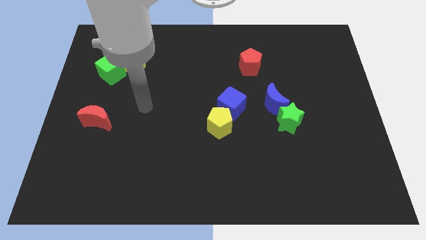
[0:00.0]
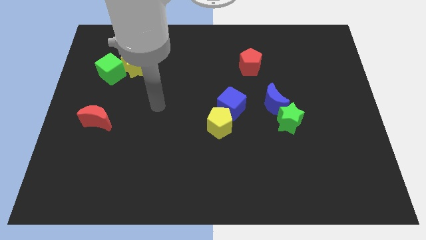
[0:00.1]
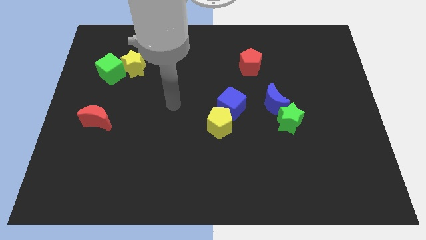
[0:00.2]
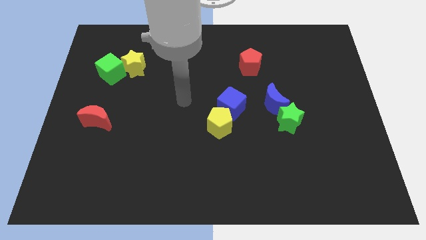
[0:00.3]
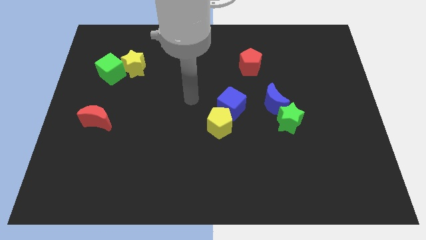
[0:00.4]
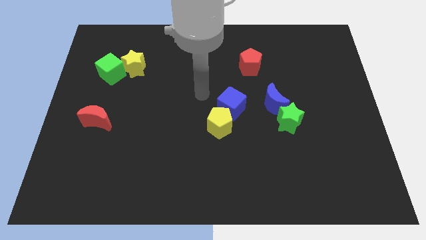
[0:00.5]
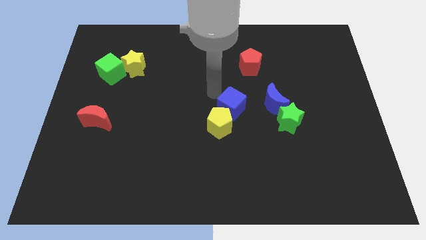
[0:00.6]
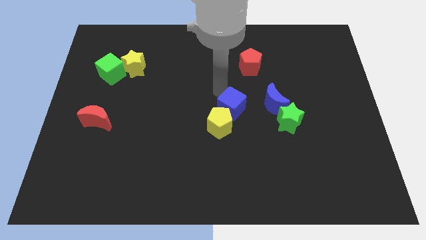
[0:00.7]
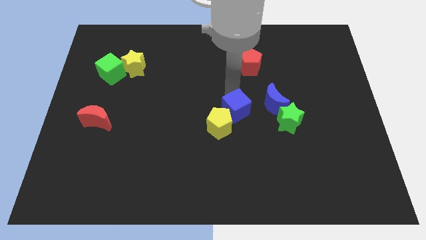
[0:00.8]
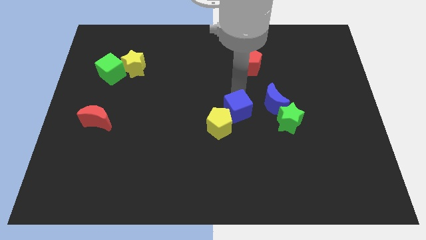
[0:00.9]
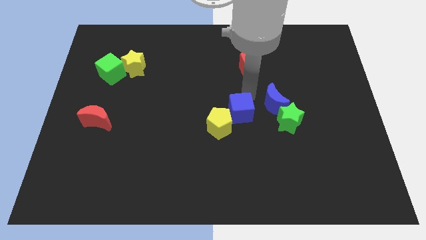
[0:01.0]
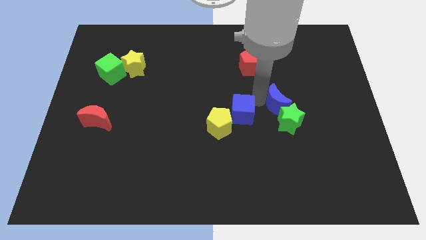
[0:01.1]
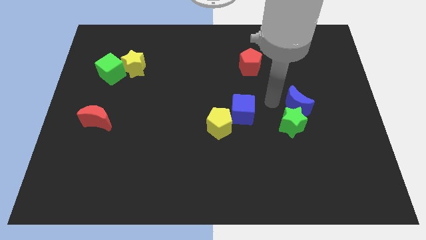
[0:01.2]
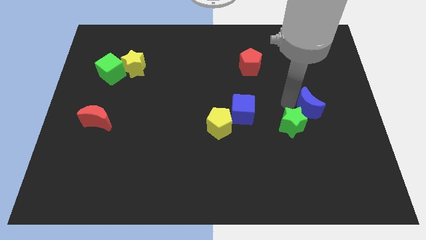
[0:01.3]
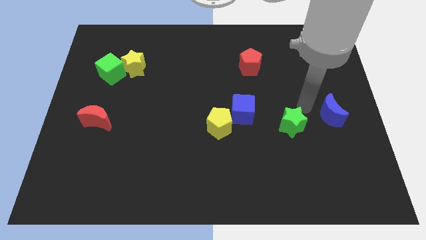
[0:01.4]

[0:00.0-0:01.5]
pull the green star apart from the blue moon

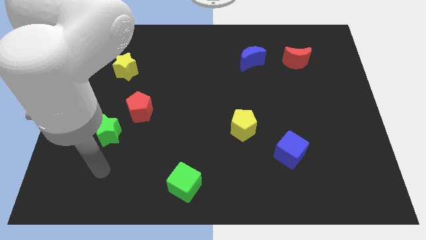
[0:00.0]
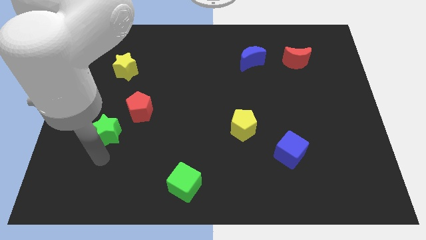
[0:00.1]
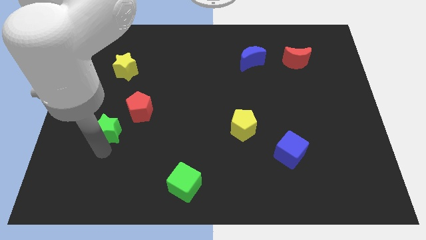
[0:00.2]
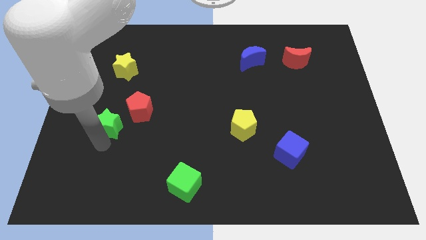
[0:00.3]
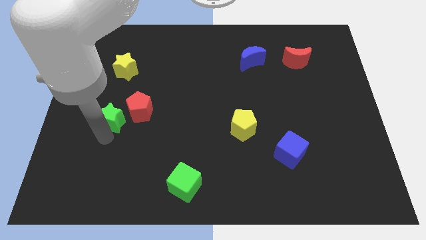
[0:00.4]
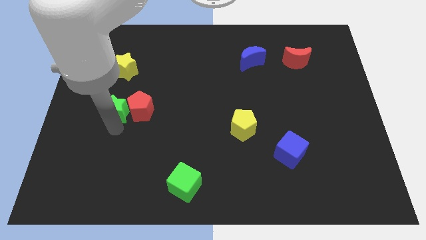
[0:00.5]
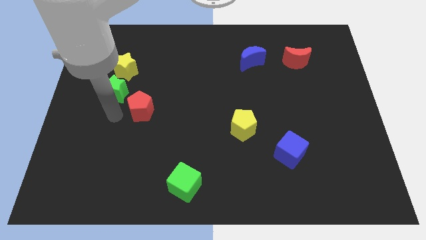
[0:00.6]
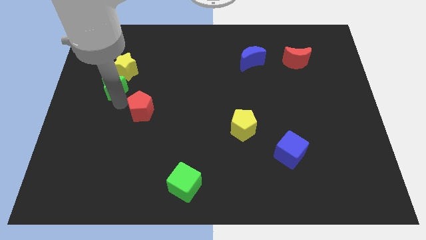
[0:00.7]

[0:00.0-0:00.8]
separate the red pentagon from the green star

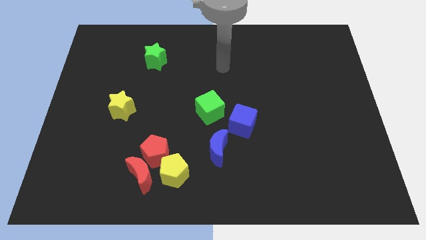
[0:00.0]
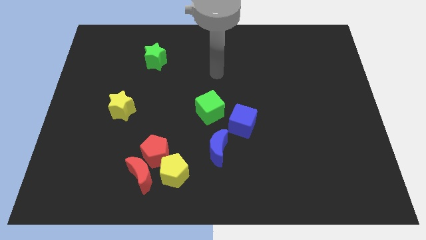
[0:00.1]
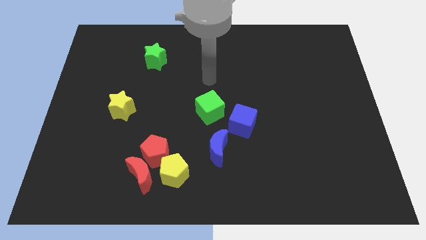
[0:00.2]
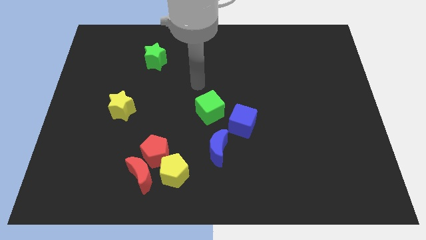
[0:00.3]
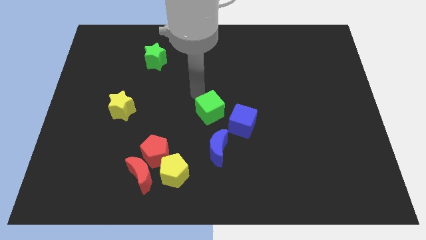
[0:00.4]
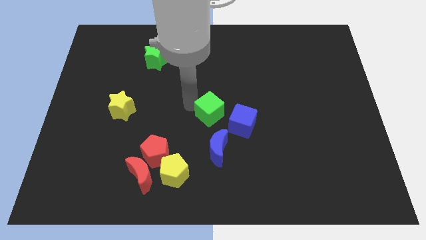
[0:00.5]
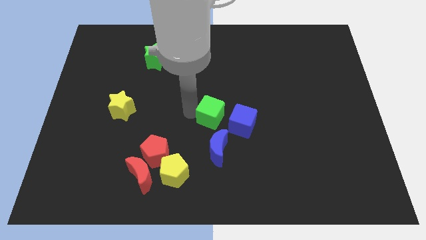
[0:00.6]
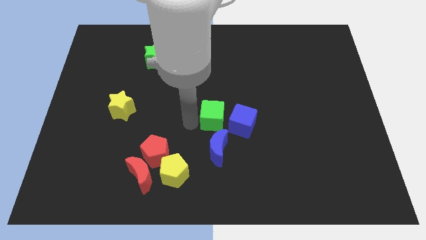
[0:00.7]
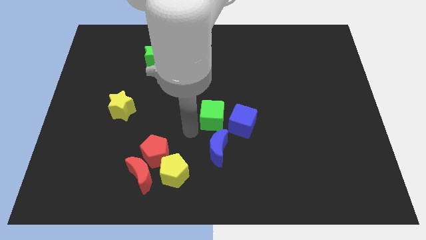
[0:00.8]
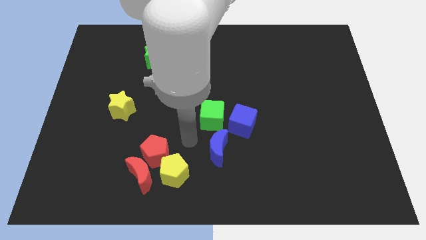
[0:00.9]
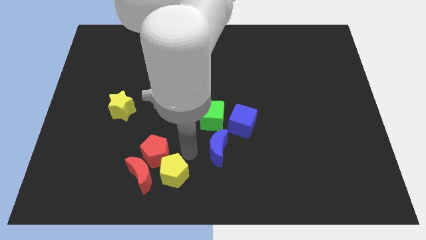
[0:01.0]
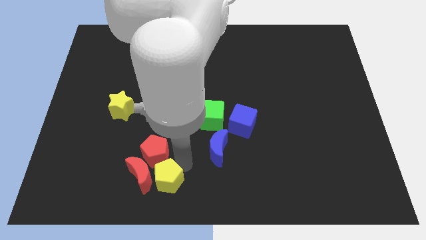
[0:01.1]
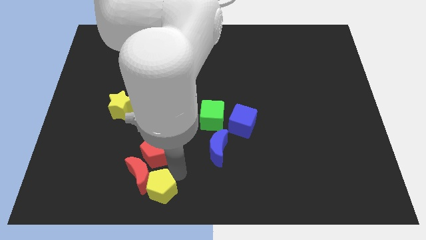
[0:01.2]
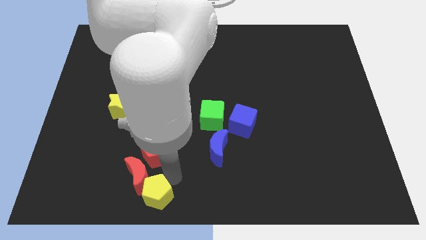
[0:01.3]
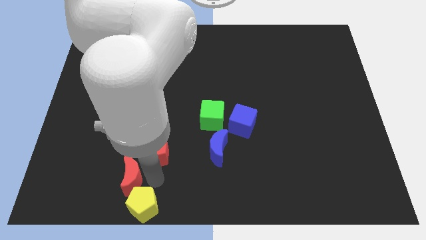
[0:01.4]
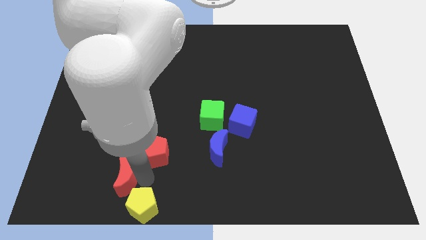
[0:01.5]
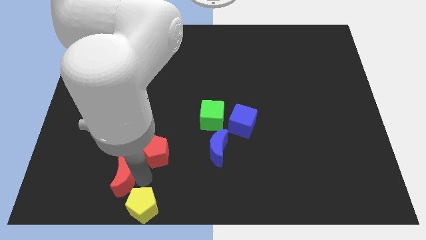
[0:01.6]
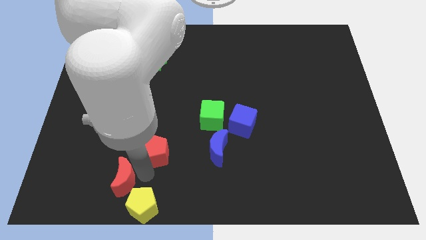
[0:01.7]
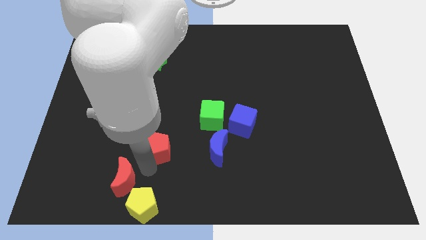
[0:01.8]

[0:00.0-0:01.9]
move the red pentagon away from the red moon and yellow pentagon

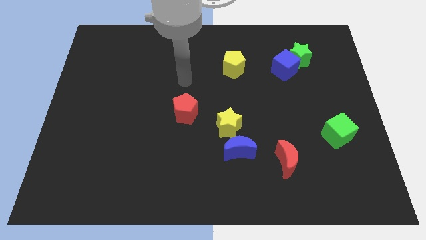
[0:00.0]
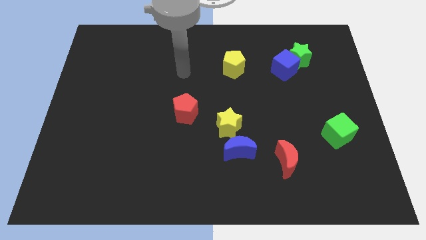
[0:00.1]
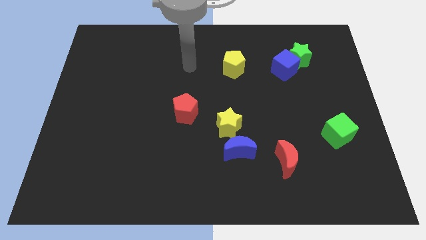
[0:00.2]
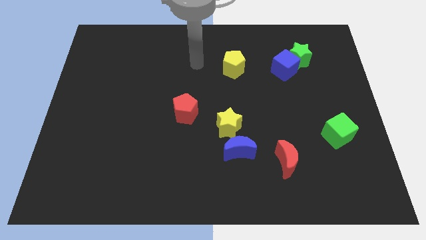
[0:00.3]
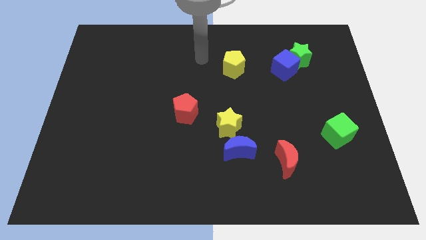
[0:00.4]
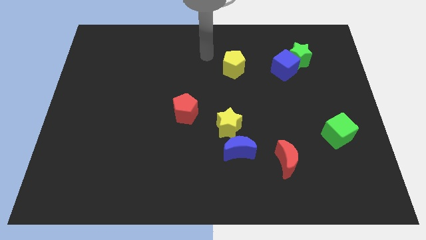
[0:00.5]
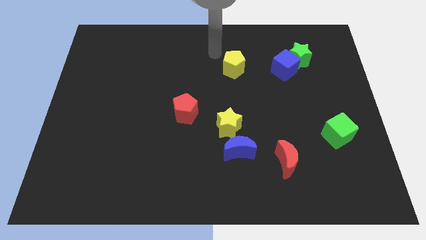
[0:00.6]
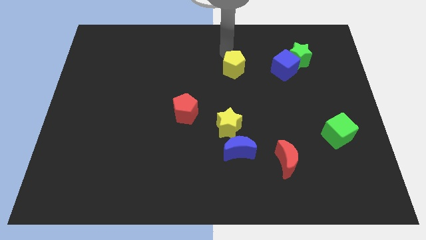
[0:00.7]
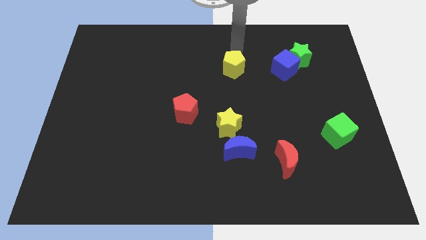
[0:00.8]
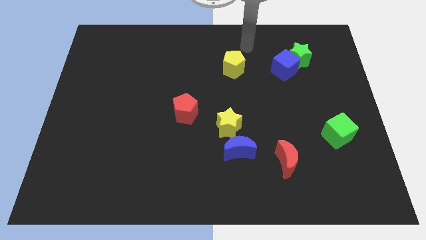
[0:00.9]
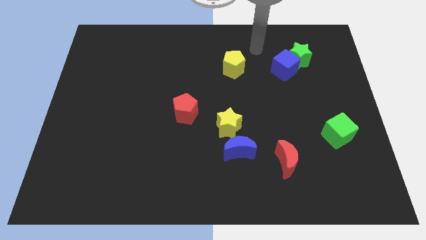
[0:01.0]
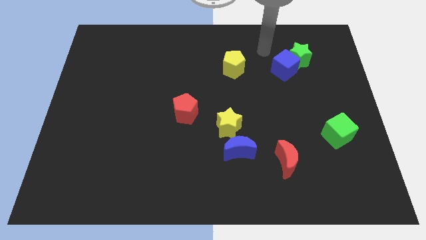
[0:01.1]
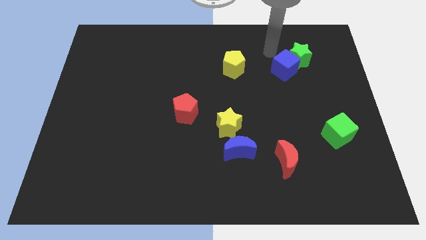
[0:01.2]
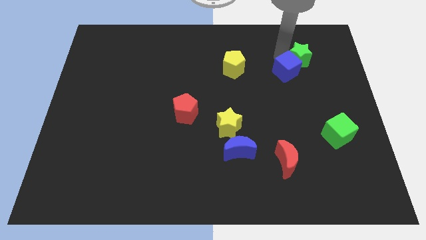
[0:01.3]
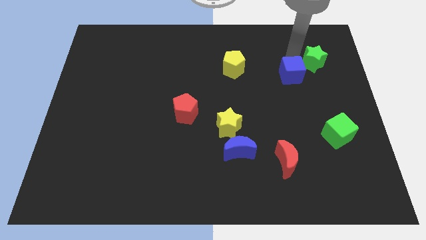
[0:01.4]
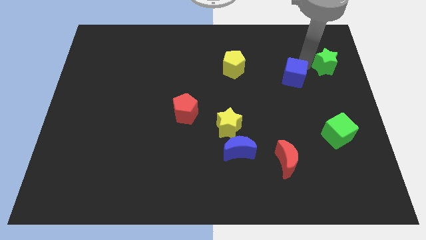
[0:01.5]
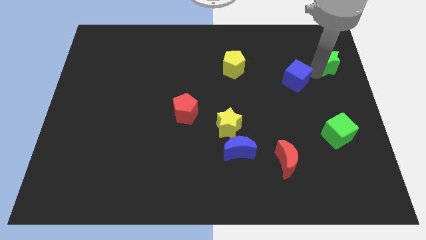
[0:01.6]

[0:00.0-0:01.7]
separate the blue cube from the green star

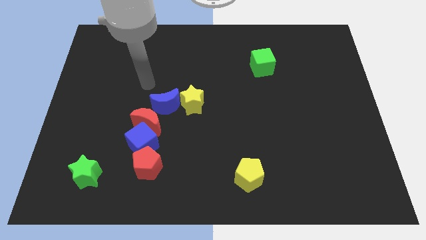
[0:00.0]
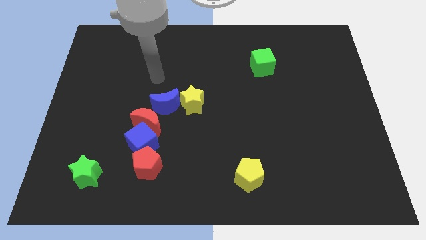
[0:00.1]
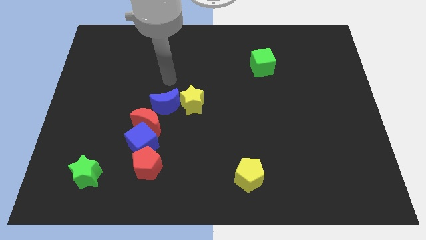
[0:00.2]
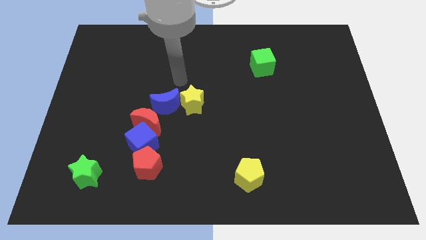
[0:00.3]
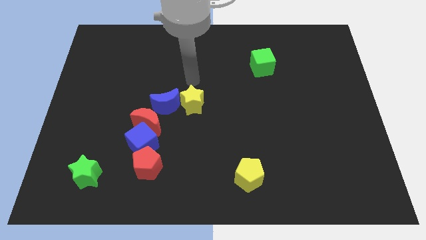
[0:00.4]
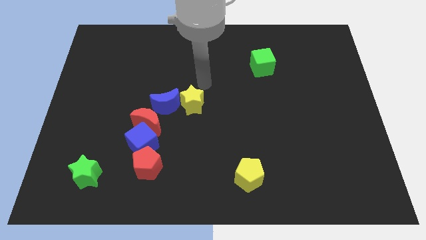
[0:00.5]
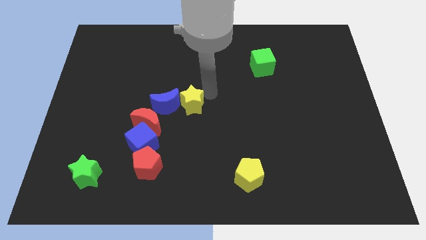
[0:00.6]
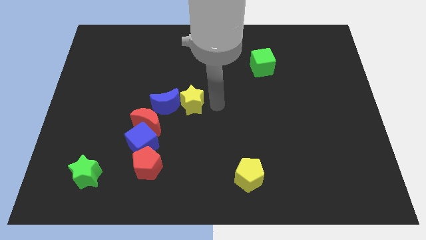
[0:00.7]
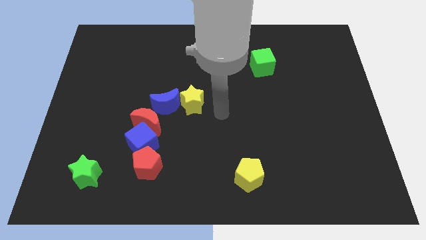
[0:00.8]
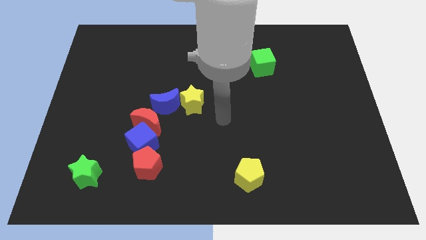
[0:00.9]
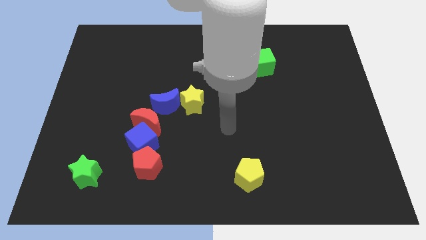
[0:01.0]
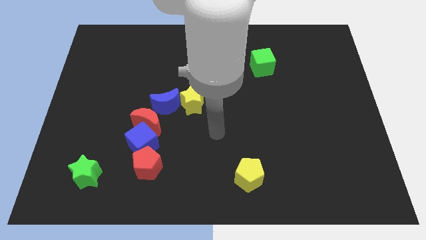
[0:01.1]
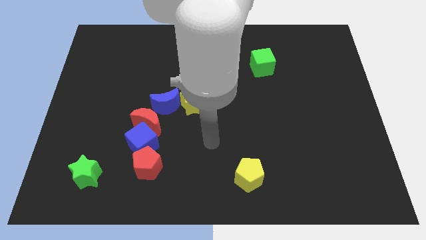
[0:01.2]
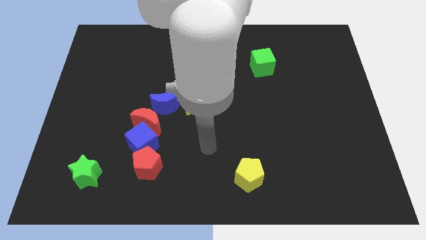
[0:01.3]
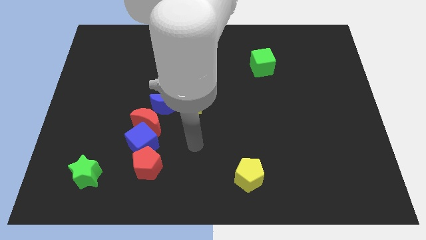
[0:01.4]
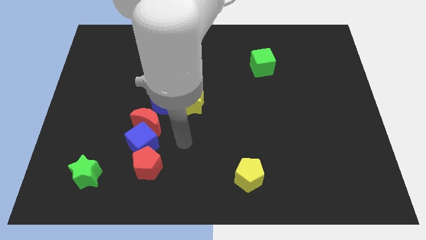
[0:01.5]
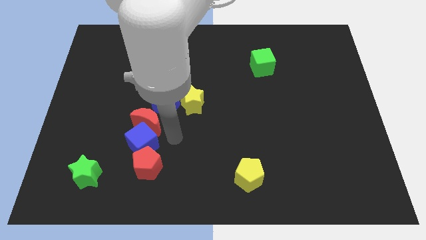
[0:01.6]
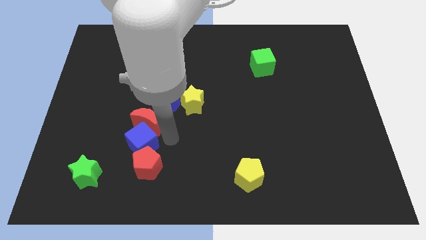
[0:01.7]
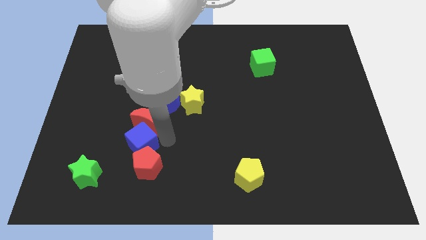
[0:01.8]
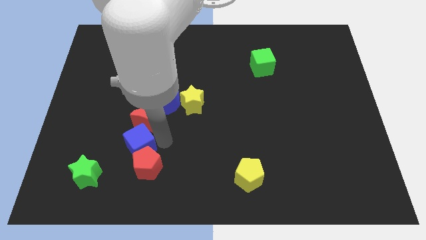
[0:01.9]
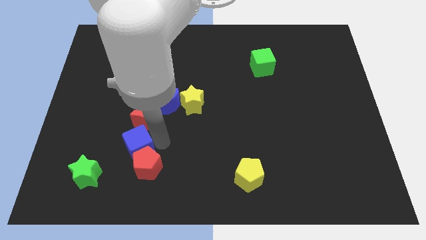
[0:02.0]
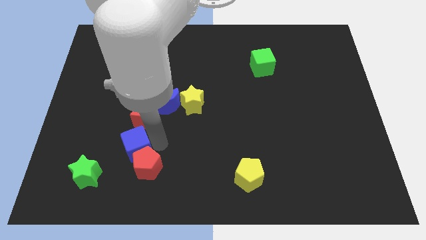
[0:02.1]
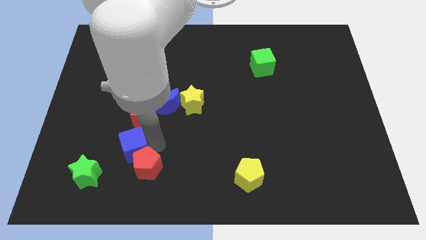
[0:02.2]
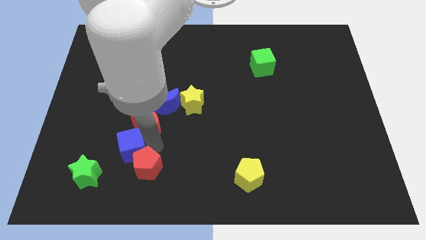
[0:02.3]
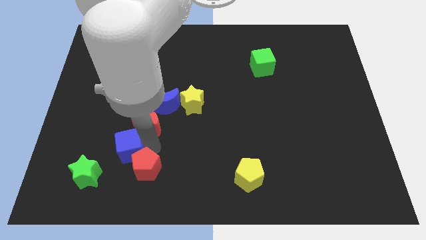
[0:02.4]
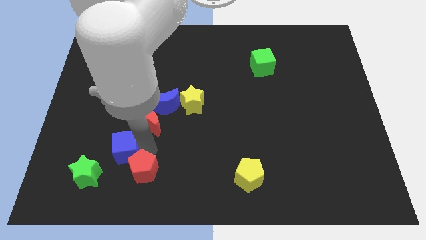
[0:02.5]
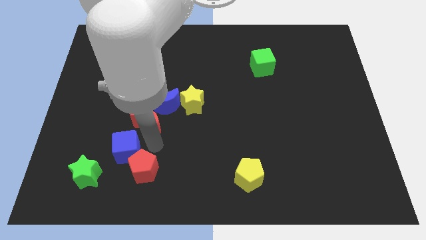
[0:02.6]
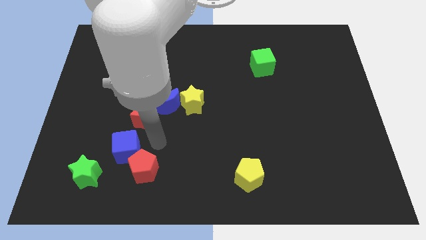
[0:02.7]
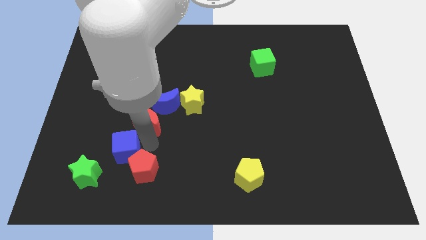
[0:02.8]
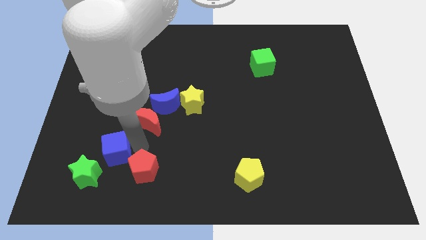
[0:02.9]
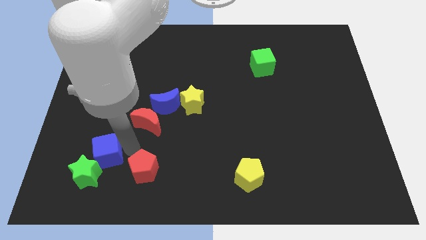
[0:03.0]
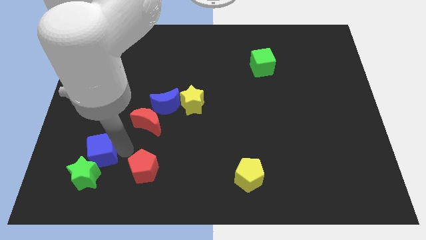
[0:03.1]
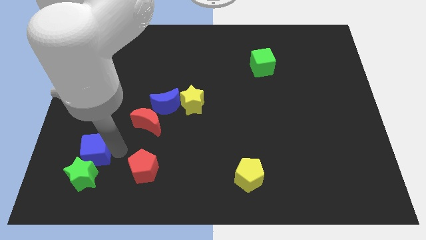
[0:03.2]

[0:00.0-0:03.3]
pull the blue cube apart from the red moon and red pentagon

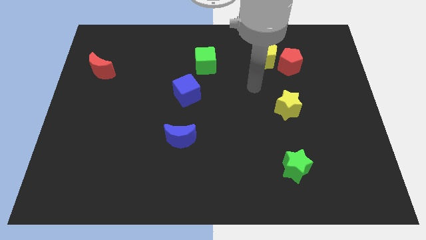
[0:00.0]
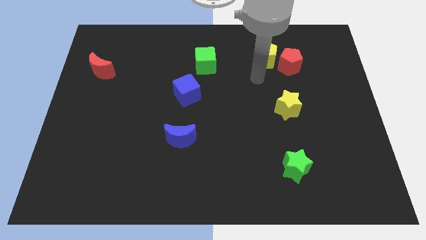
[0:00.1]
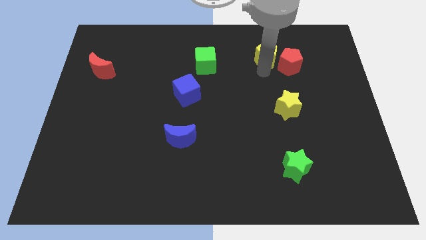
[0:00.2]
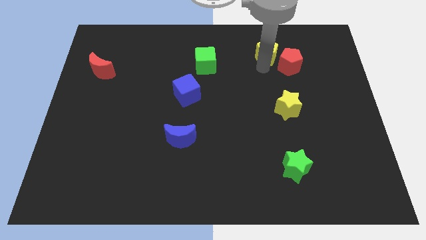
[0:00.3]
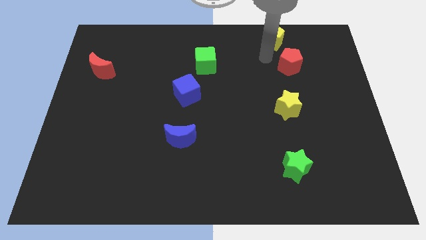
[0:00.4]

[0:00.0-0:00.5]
pull the red pentagon apart from the yellow pentagon
